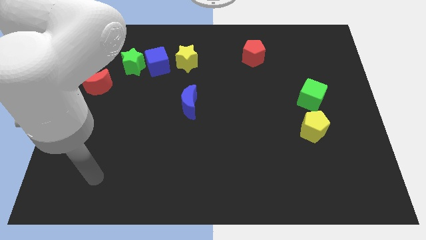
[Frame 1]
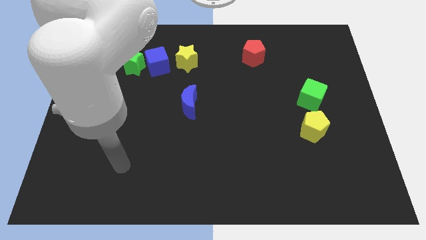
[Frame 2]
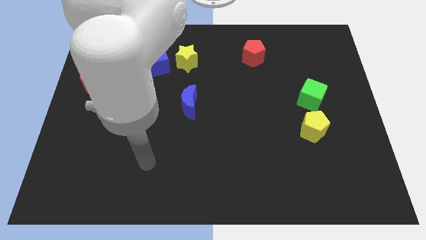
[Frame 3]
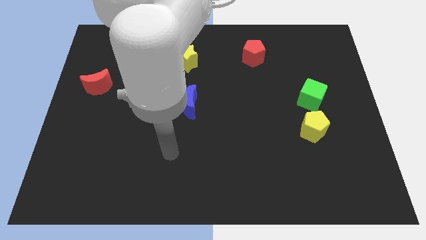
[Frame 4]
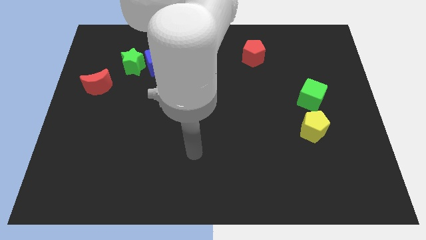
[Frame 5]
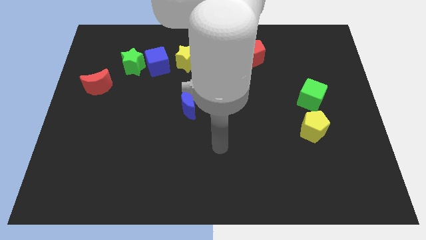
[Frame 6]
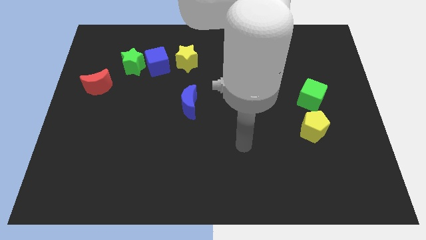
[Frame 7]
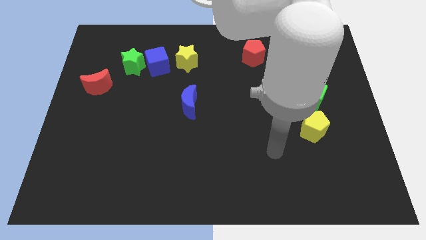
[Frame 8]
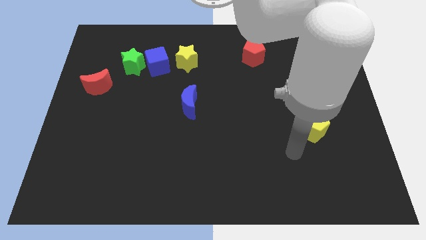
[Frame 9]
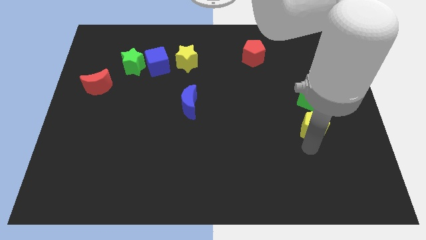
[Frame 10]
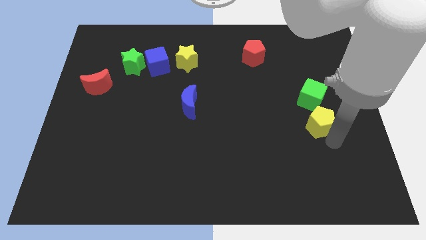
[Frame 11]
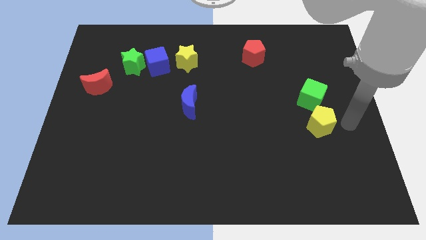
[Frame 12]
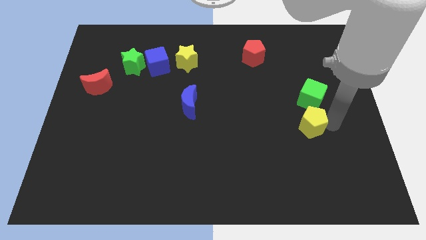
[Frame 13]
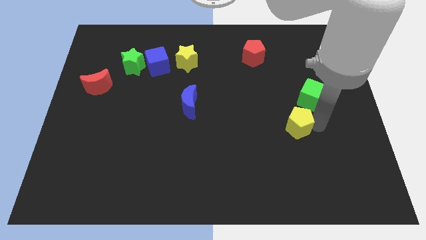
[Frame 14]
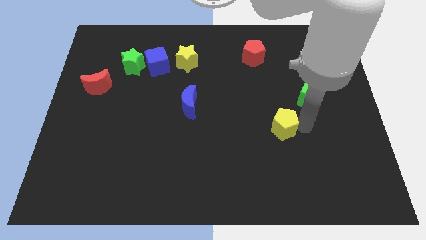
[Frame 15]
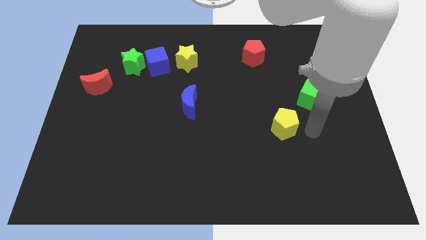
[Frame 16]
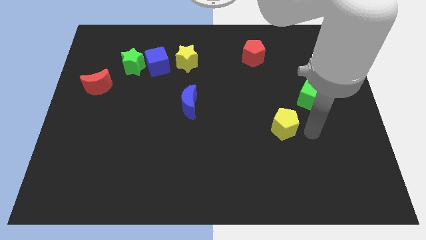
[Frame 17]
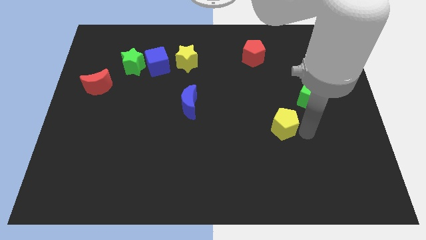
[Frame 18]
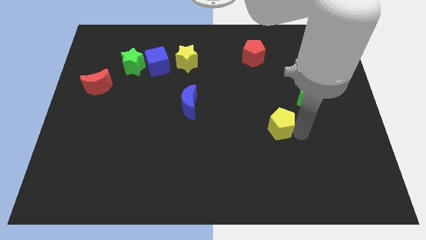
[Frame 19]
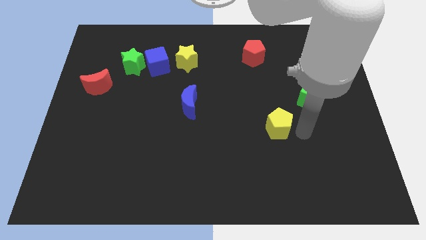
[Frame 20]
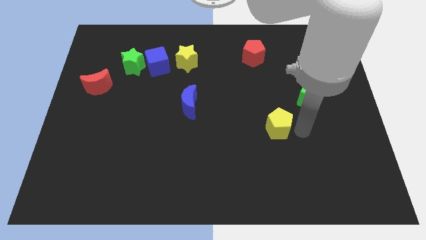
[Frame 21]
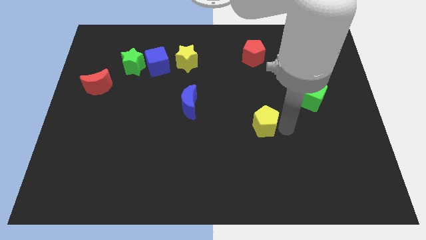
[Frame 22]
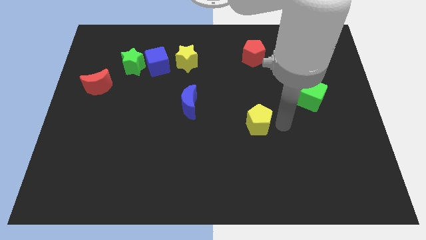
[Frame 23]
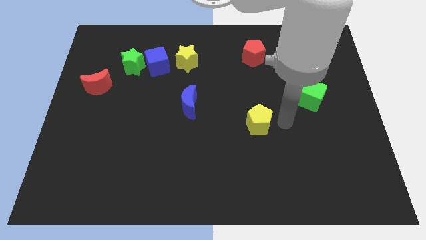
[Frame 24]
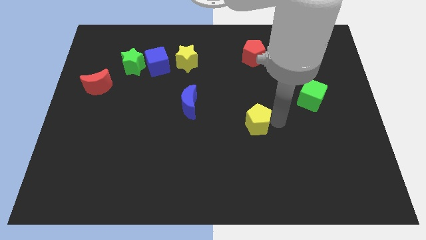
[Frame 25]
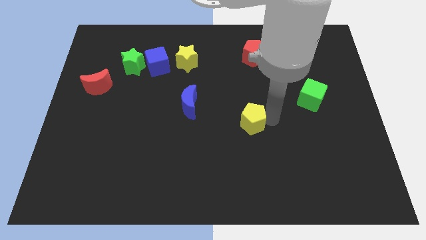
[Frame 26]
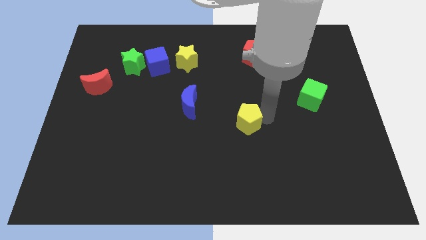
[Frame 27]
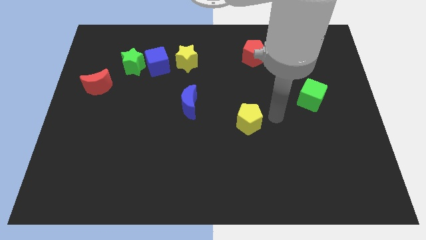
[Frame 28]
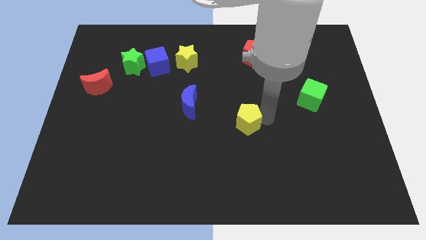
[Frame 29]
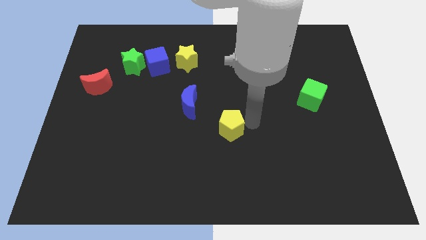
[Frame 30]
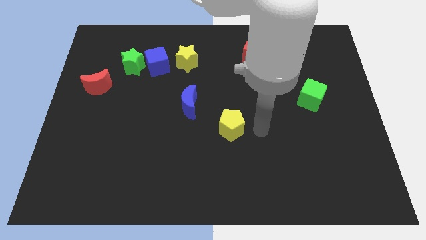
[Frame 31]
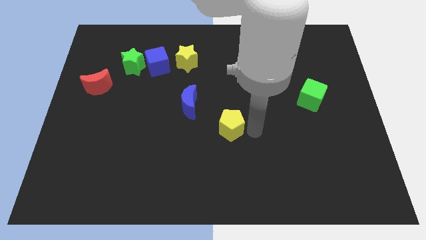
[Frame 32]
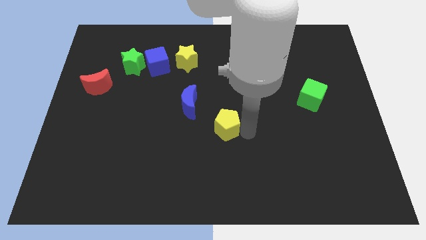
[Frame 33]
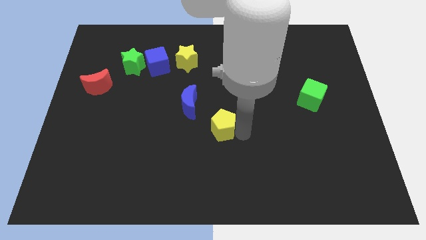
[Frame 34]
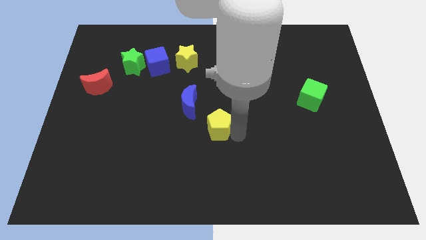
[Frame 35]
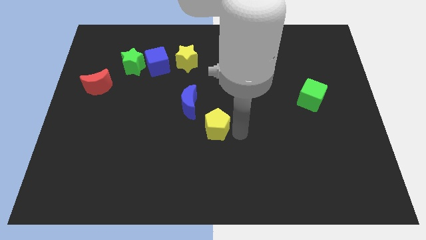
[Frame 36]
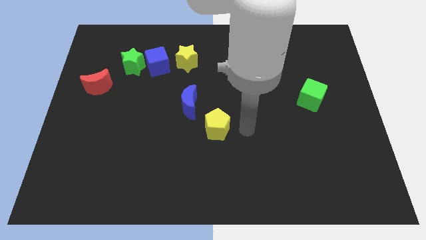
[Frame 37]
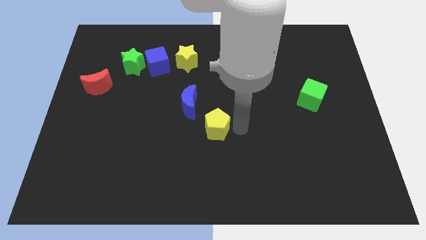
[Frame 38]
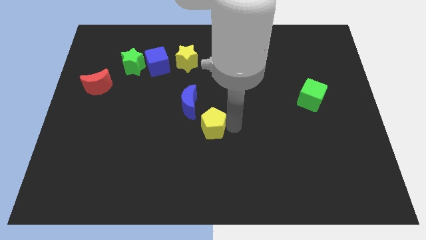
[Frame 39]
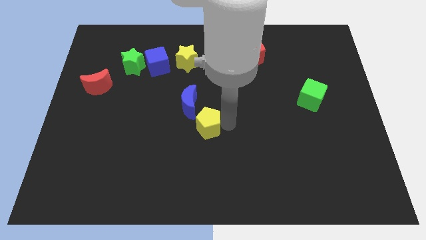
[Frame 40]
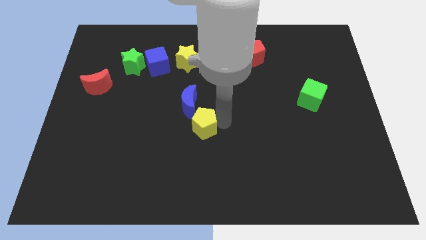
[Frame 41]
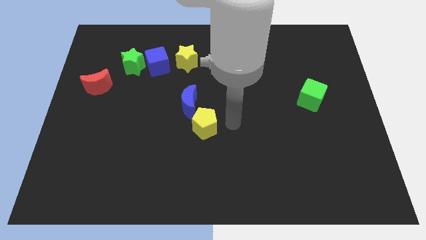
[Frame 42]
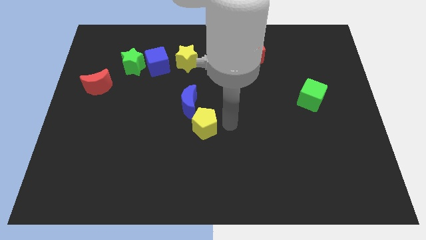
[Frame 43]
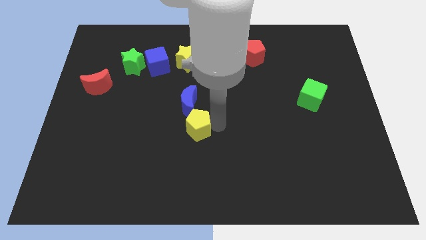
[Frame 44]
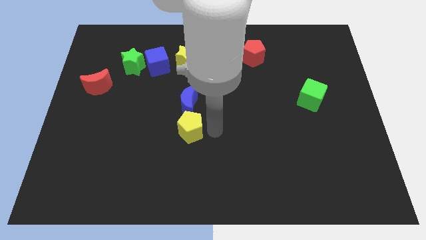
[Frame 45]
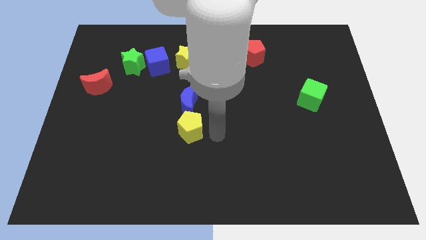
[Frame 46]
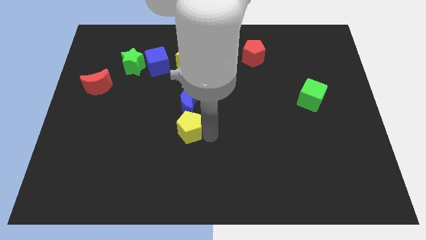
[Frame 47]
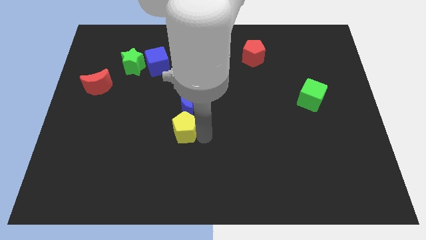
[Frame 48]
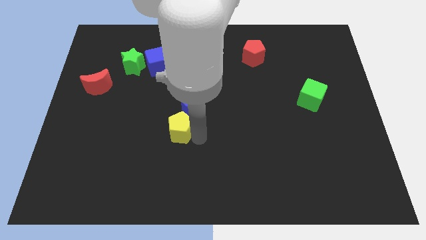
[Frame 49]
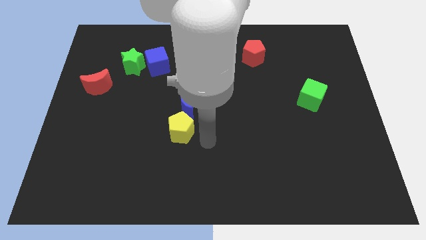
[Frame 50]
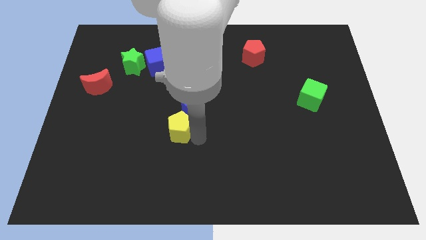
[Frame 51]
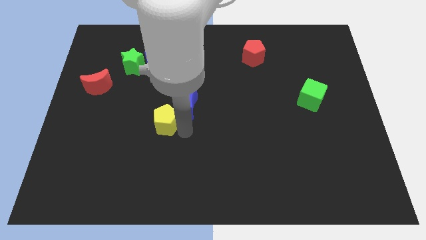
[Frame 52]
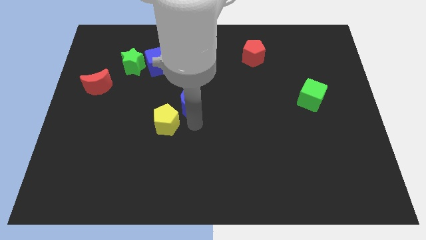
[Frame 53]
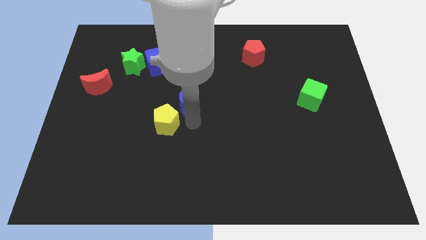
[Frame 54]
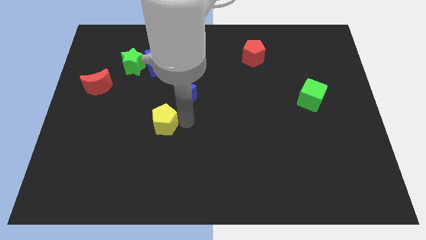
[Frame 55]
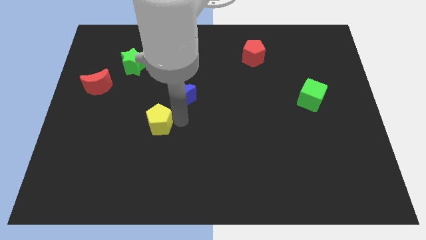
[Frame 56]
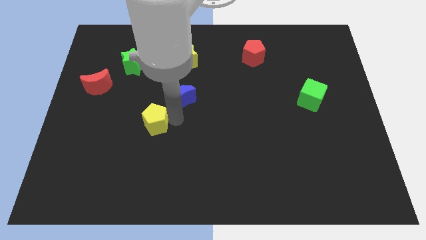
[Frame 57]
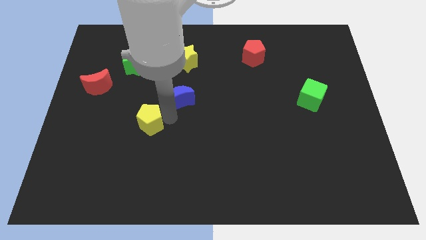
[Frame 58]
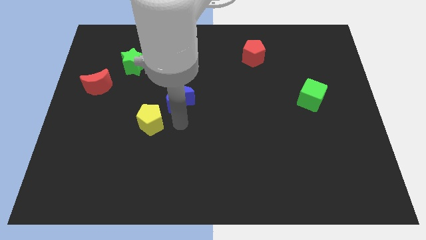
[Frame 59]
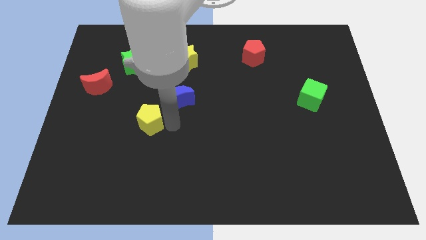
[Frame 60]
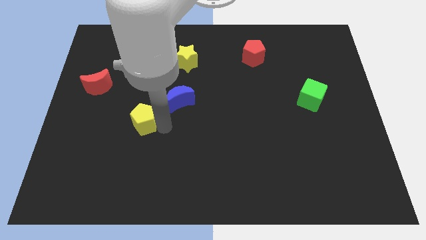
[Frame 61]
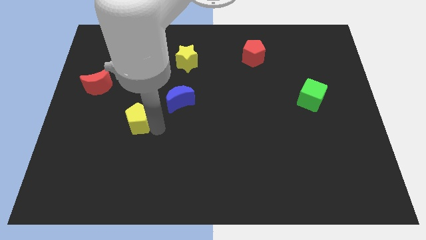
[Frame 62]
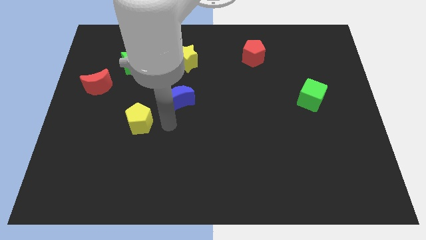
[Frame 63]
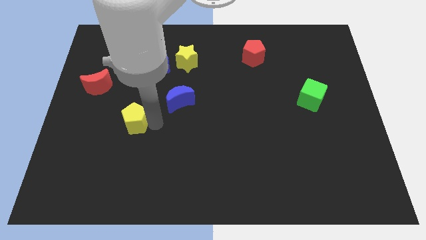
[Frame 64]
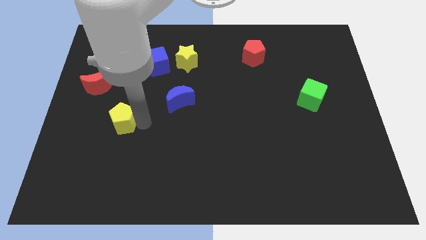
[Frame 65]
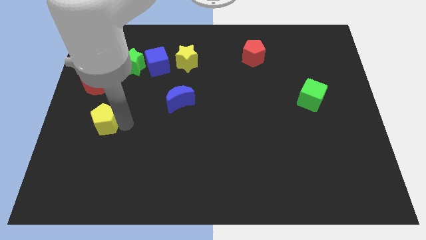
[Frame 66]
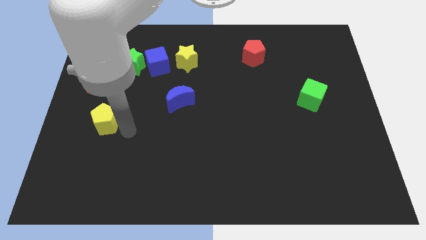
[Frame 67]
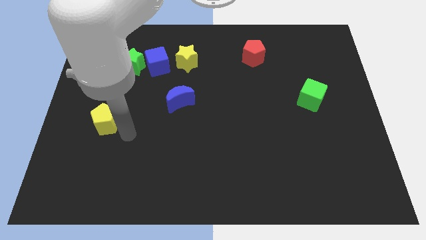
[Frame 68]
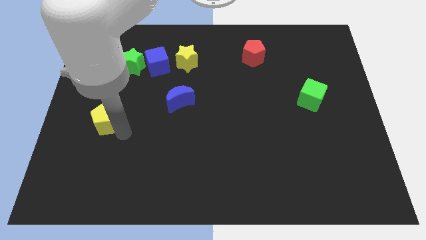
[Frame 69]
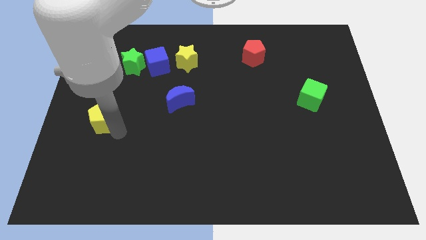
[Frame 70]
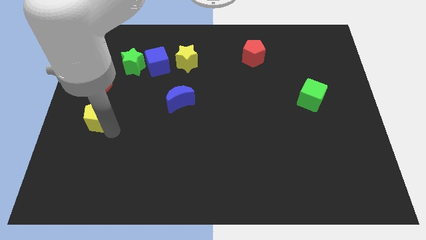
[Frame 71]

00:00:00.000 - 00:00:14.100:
put the yellow pentagon to the left side
